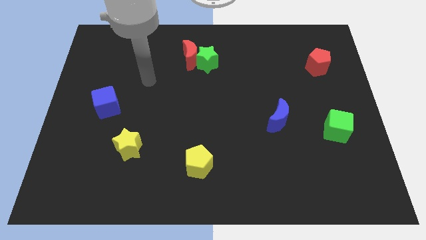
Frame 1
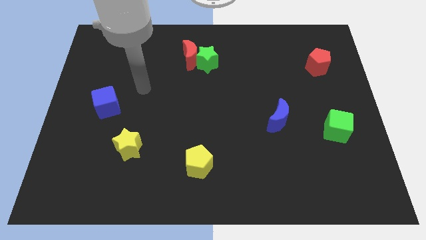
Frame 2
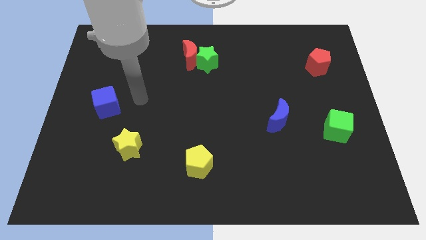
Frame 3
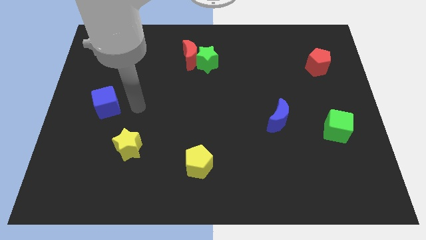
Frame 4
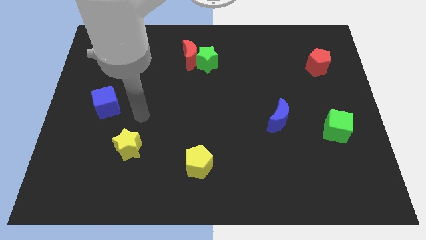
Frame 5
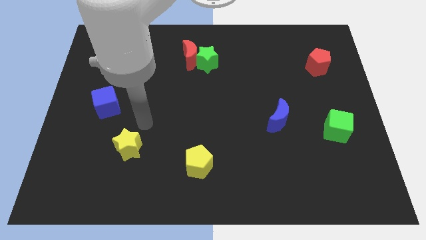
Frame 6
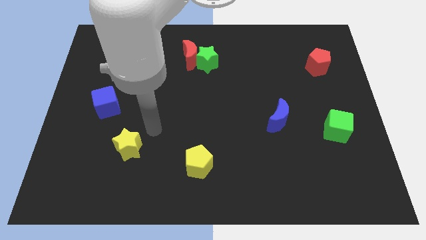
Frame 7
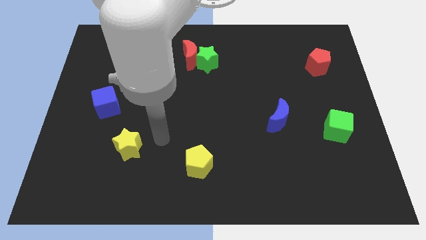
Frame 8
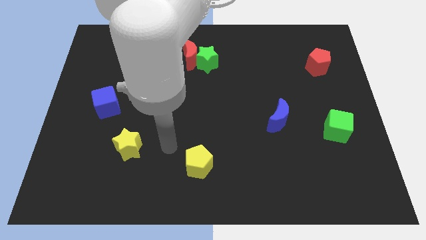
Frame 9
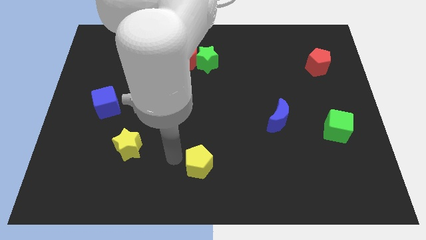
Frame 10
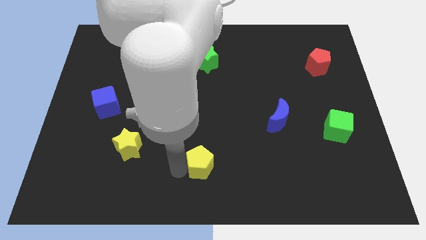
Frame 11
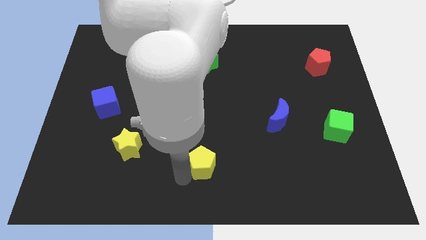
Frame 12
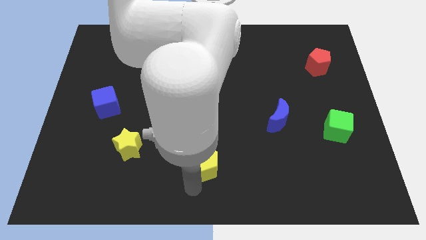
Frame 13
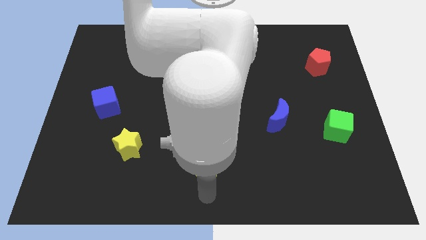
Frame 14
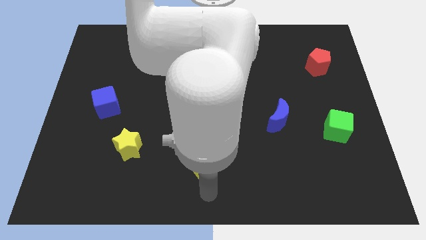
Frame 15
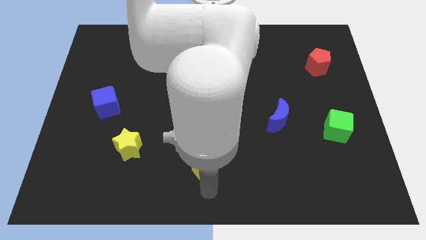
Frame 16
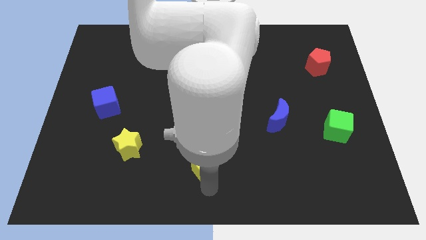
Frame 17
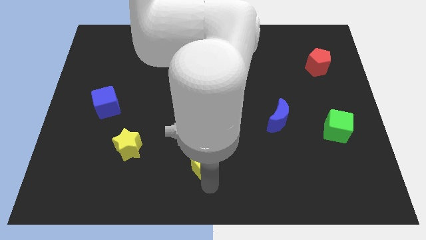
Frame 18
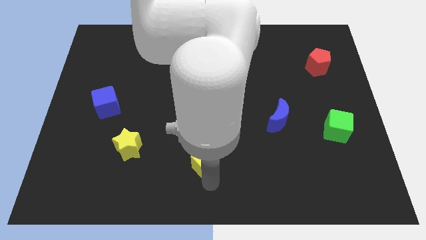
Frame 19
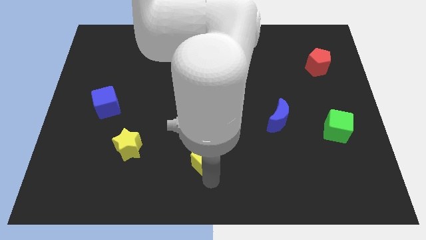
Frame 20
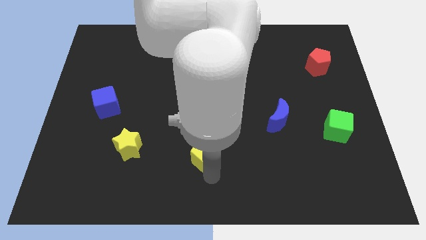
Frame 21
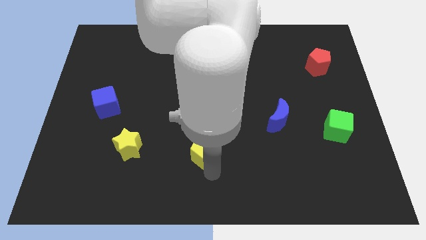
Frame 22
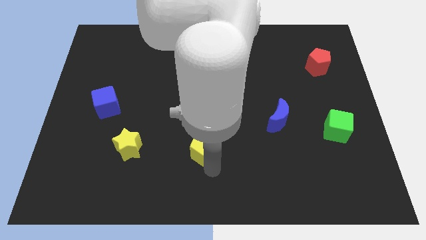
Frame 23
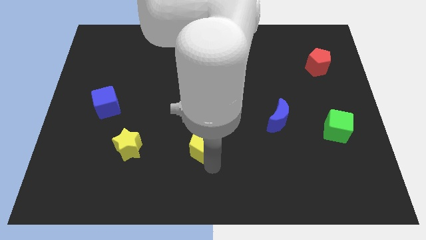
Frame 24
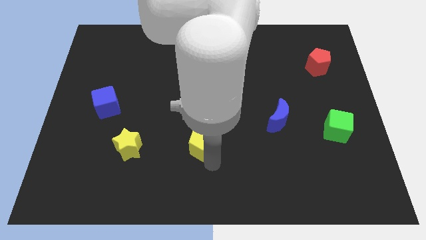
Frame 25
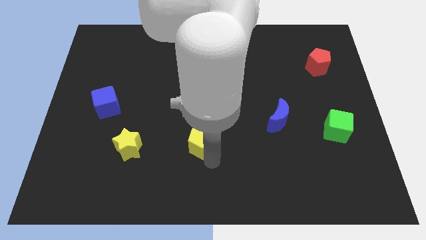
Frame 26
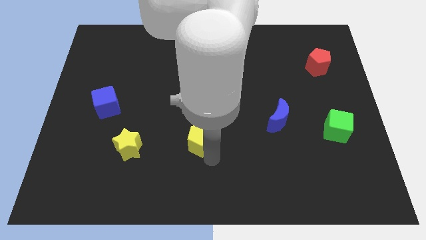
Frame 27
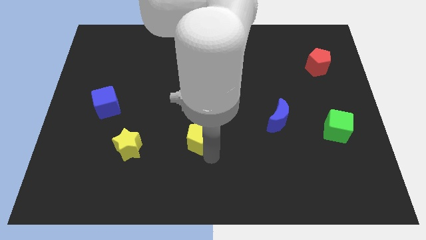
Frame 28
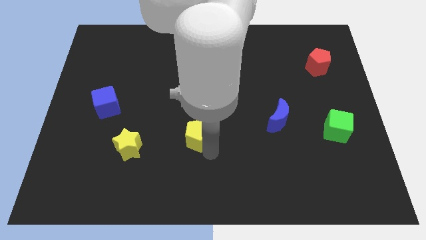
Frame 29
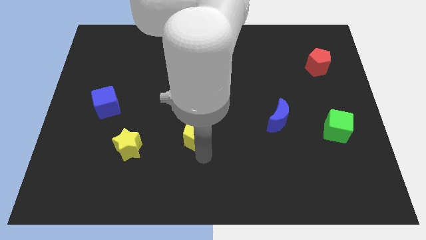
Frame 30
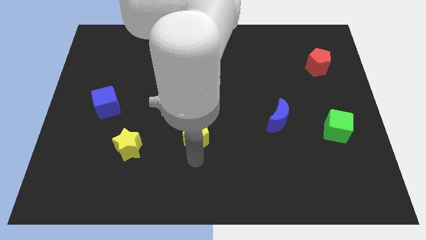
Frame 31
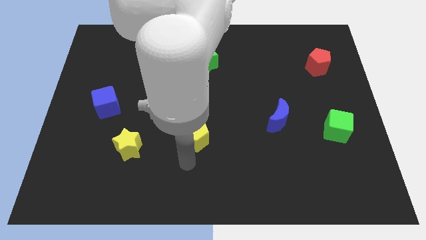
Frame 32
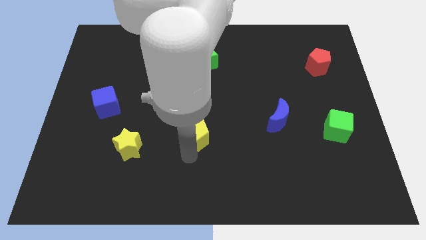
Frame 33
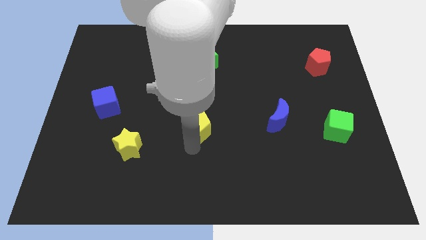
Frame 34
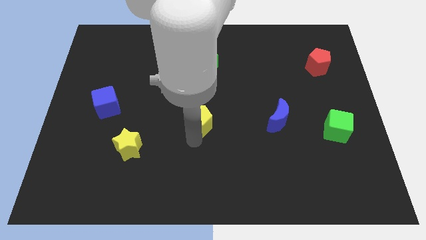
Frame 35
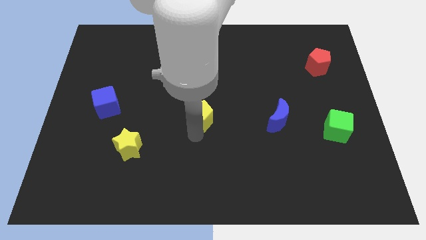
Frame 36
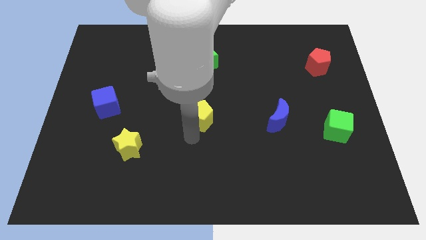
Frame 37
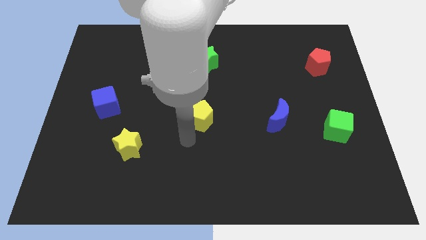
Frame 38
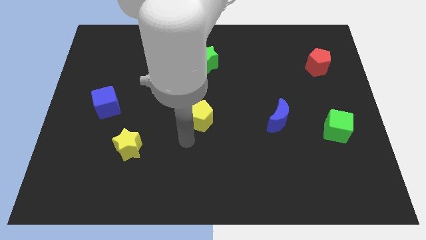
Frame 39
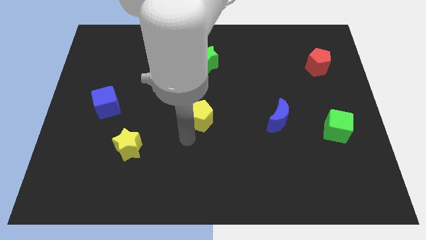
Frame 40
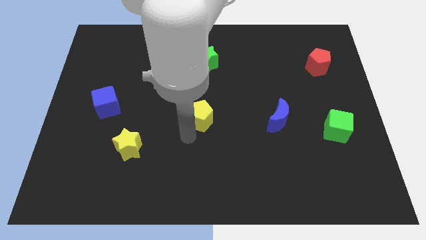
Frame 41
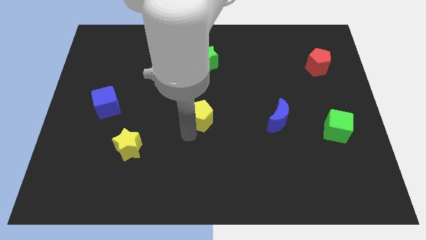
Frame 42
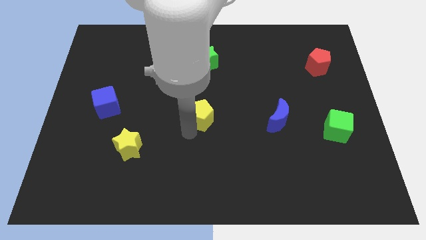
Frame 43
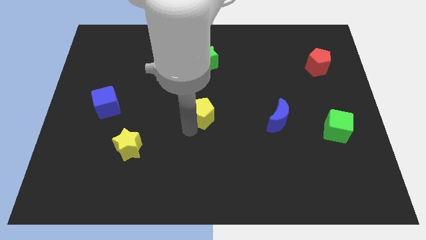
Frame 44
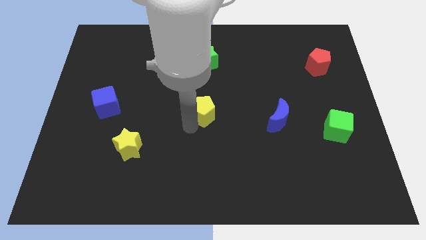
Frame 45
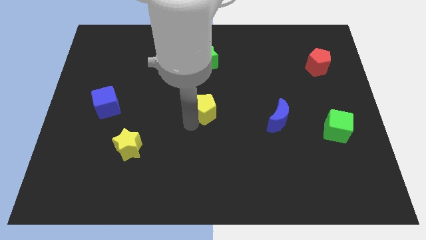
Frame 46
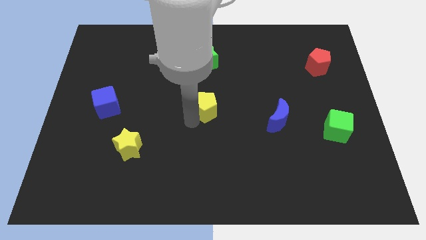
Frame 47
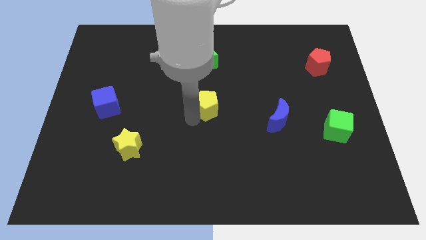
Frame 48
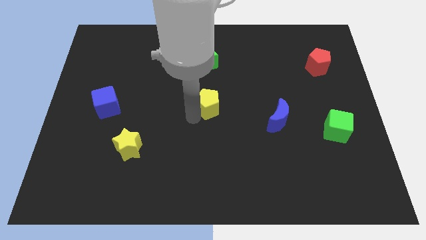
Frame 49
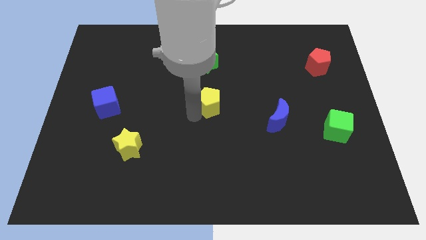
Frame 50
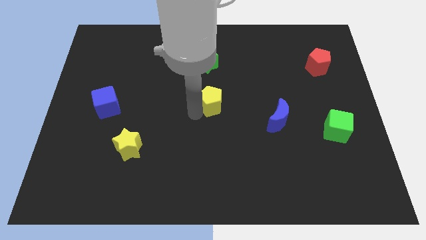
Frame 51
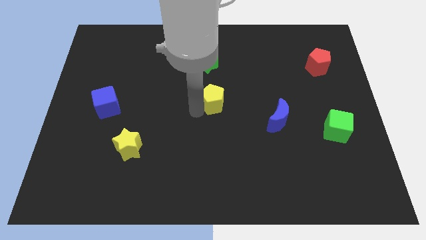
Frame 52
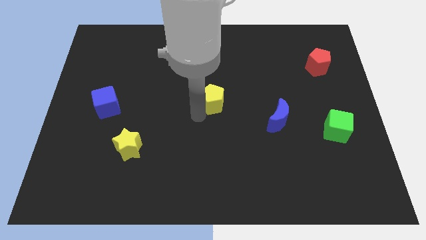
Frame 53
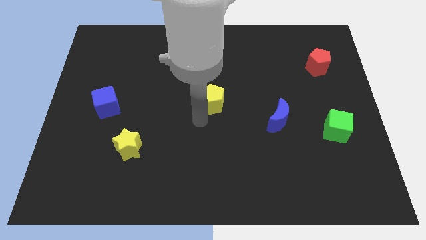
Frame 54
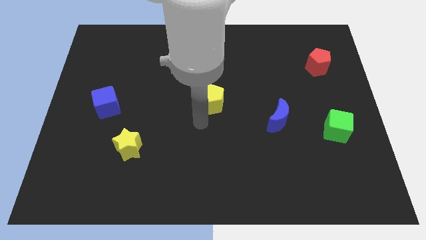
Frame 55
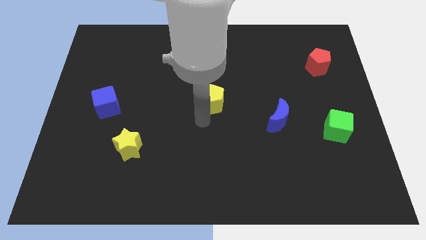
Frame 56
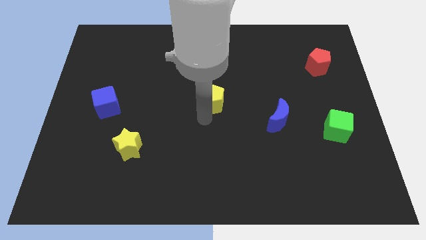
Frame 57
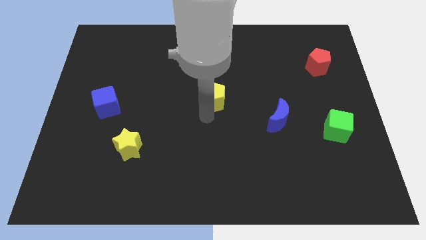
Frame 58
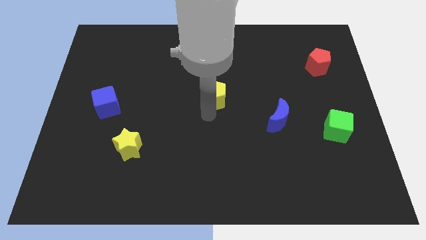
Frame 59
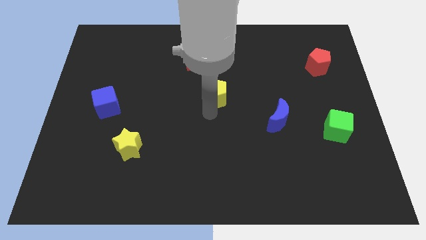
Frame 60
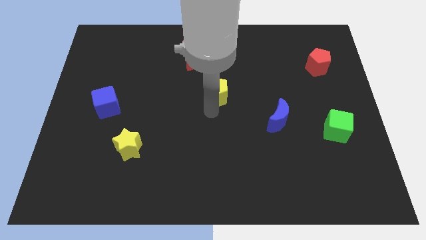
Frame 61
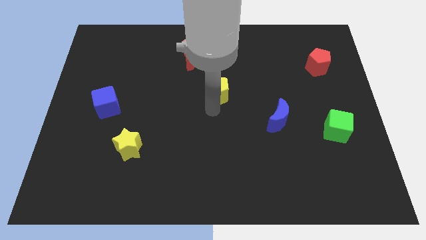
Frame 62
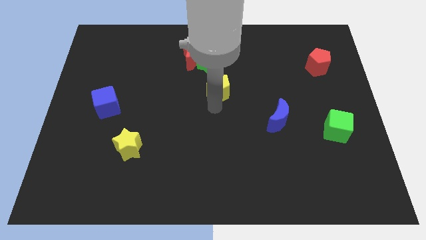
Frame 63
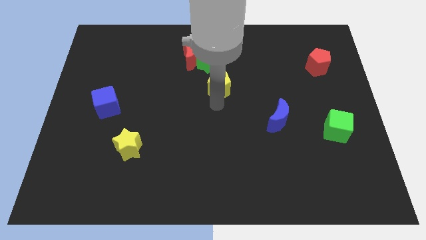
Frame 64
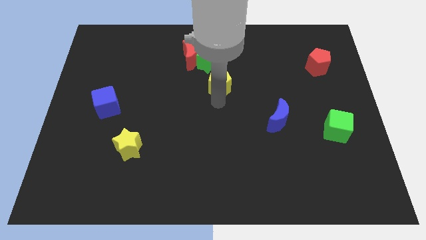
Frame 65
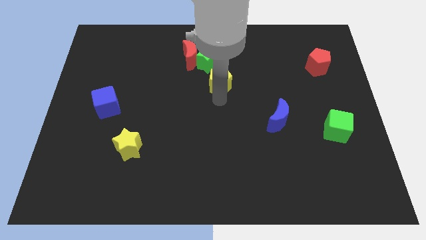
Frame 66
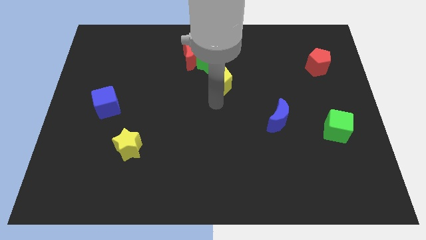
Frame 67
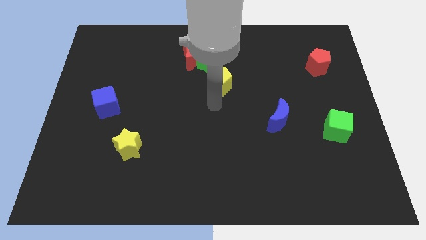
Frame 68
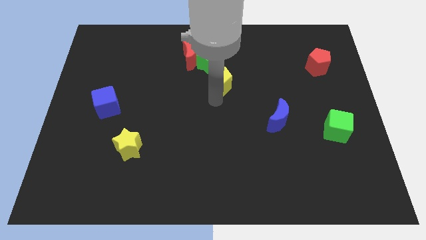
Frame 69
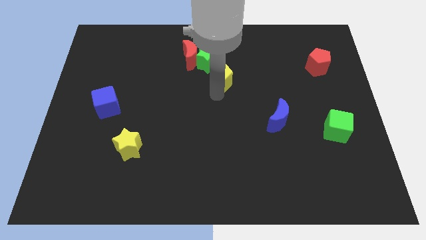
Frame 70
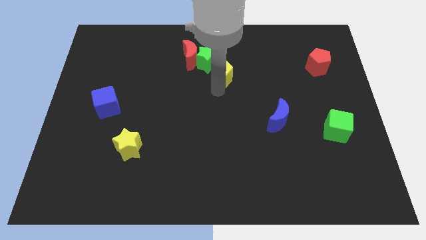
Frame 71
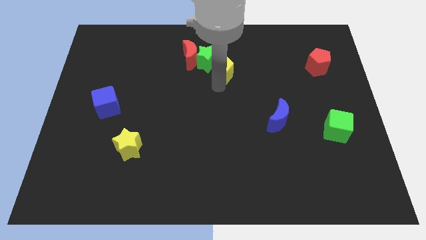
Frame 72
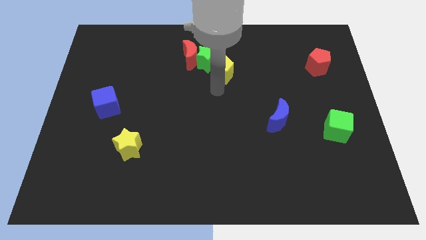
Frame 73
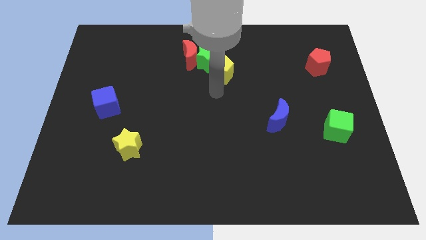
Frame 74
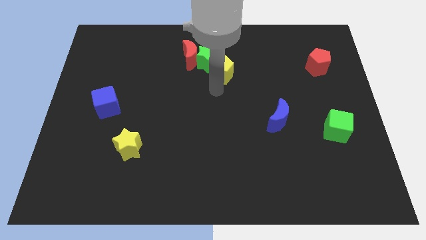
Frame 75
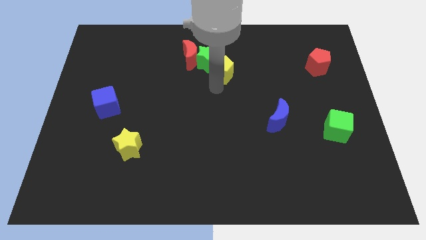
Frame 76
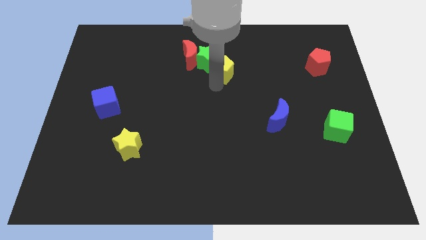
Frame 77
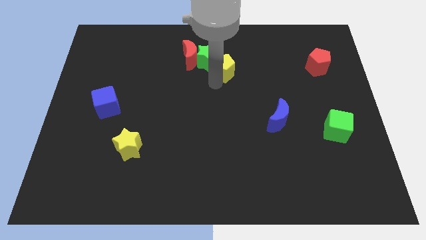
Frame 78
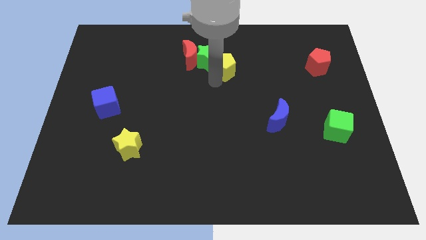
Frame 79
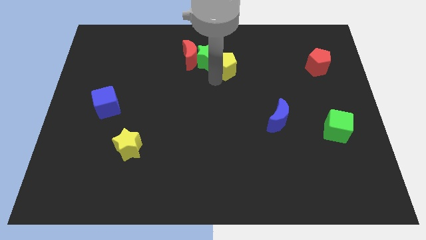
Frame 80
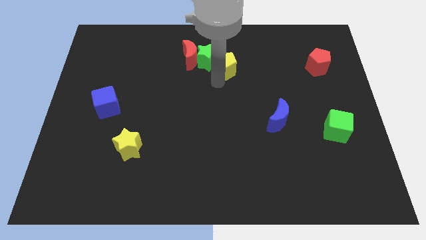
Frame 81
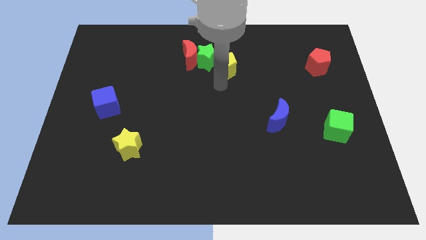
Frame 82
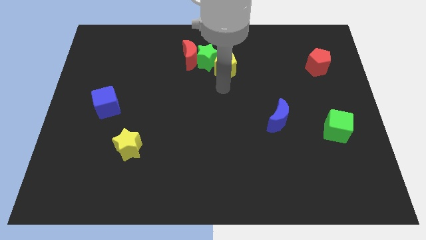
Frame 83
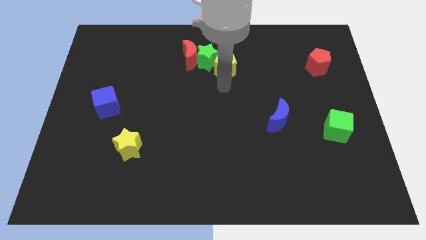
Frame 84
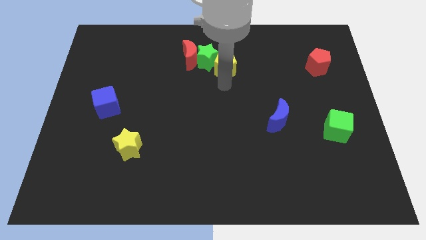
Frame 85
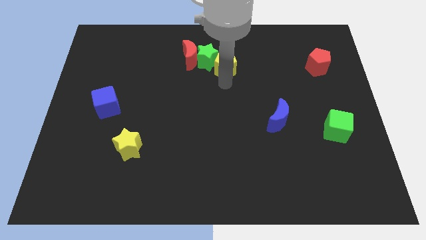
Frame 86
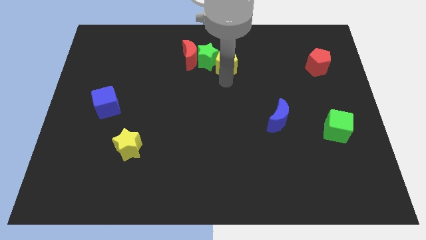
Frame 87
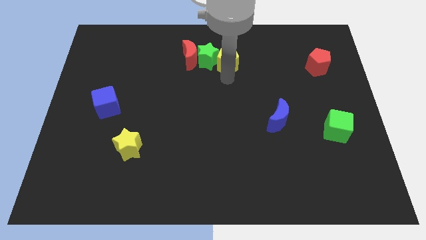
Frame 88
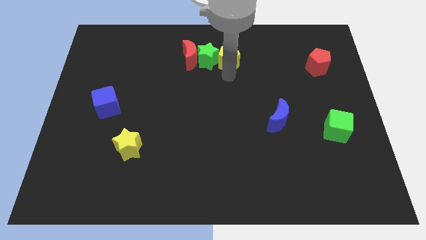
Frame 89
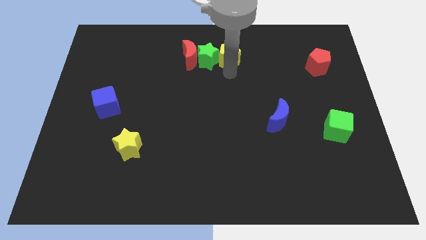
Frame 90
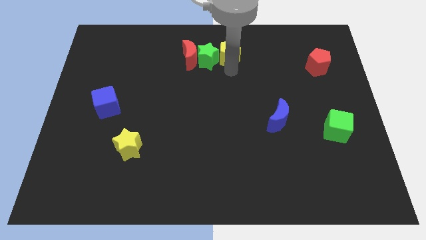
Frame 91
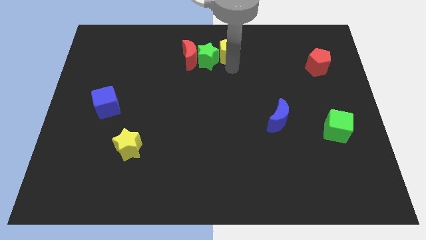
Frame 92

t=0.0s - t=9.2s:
put the yellow pentagon to the towards your base
